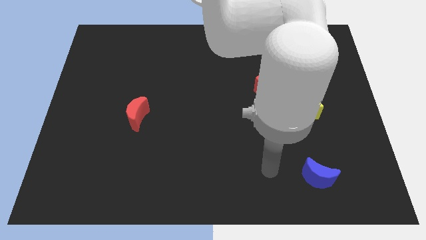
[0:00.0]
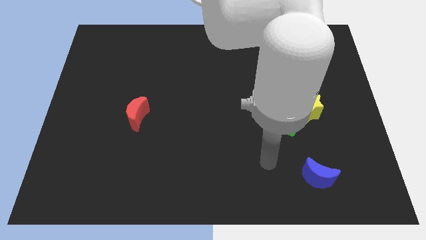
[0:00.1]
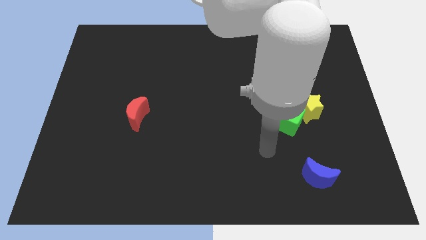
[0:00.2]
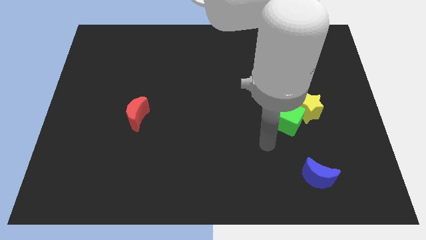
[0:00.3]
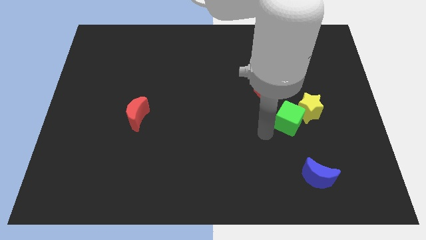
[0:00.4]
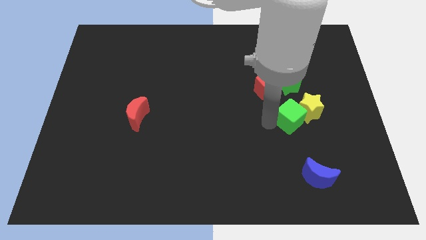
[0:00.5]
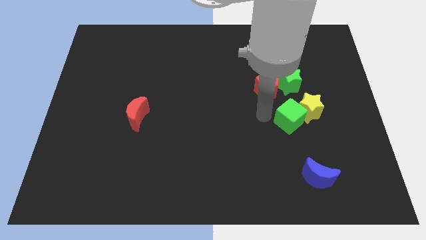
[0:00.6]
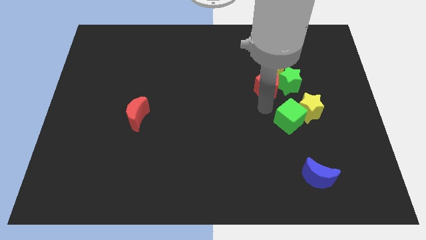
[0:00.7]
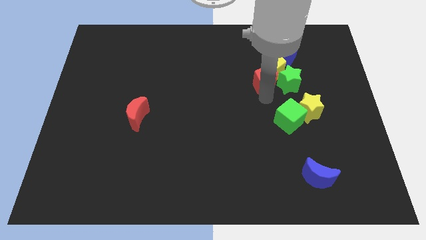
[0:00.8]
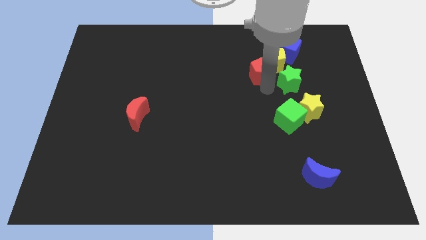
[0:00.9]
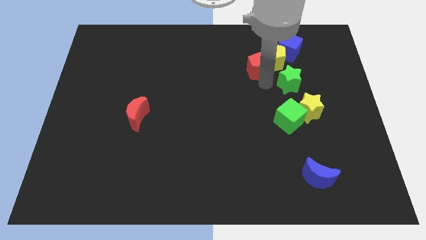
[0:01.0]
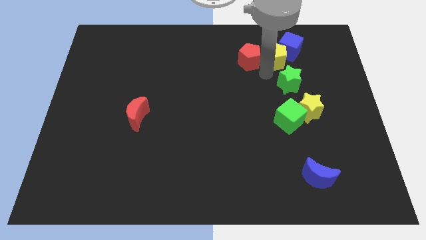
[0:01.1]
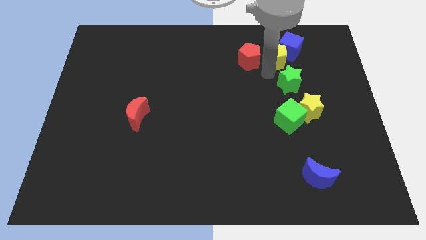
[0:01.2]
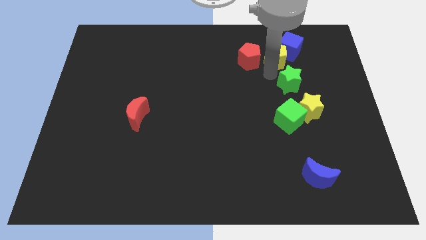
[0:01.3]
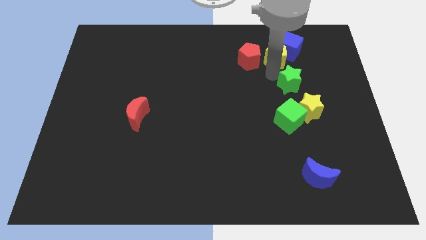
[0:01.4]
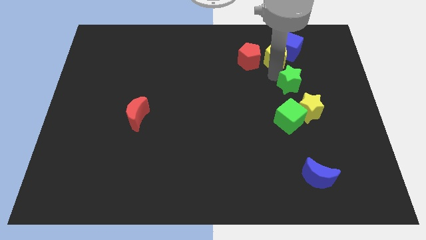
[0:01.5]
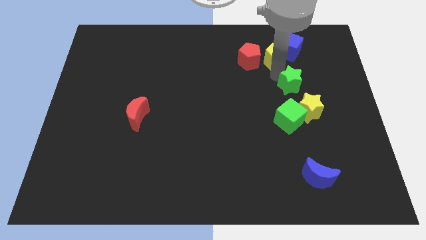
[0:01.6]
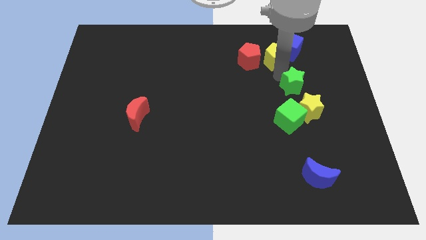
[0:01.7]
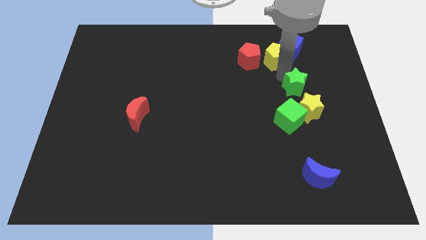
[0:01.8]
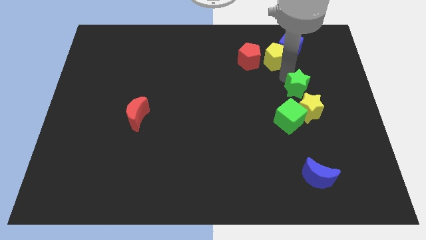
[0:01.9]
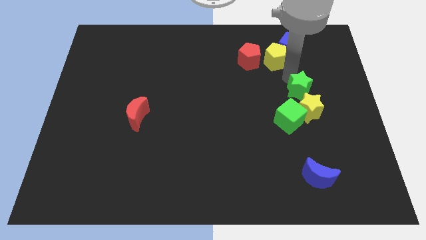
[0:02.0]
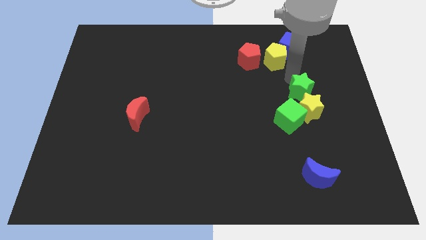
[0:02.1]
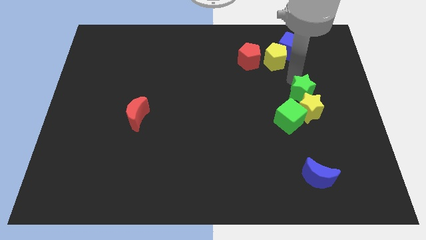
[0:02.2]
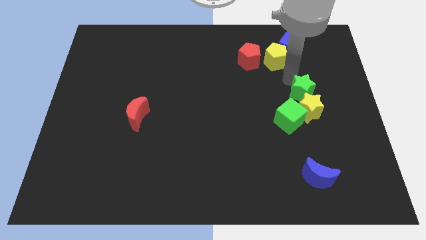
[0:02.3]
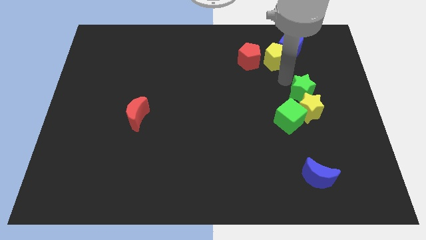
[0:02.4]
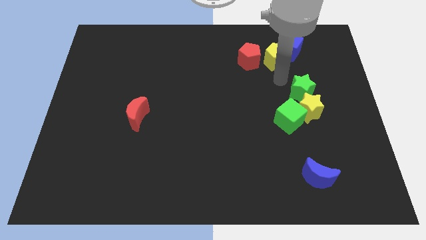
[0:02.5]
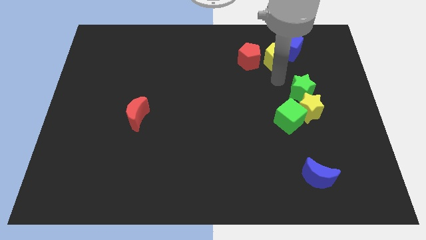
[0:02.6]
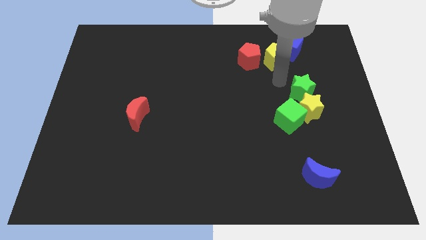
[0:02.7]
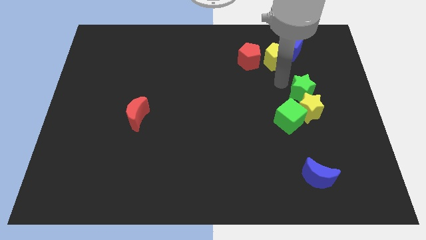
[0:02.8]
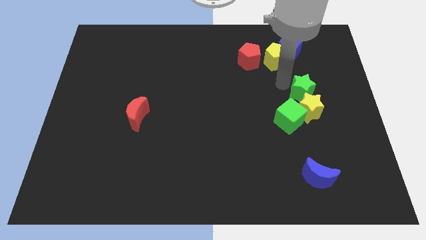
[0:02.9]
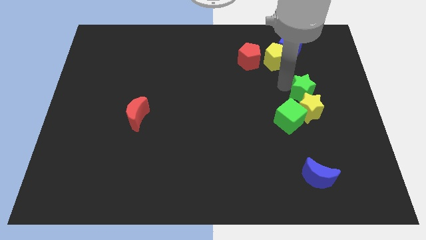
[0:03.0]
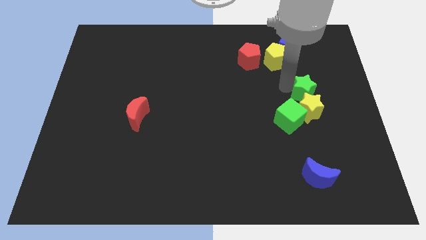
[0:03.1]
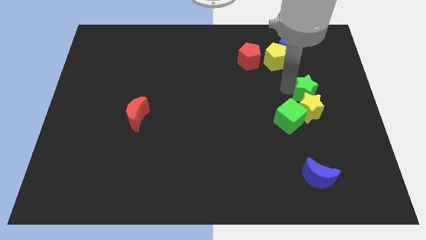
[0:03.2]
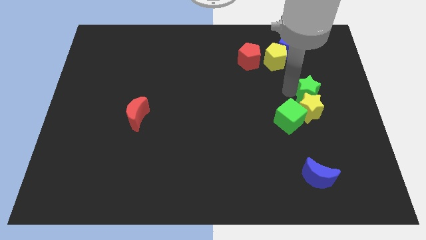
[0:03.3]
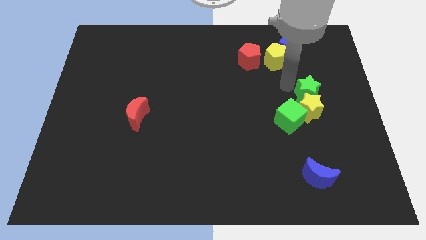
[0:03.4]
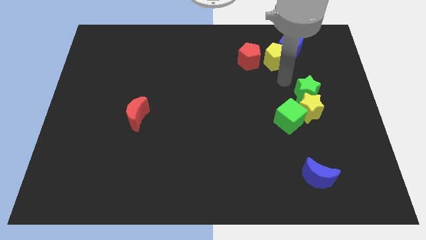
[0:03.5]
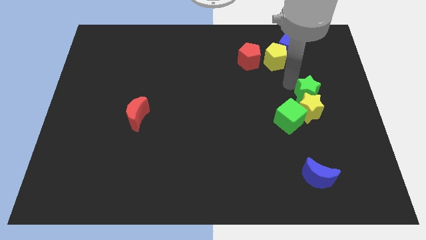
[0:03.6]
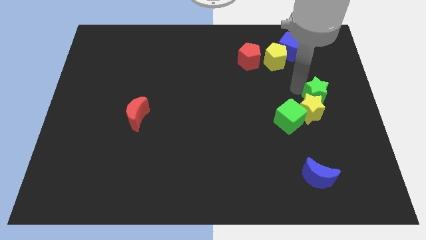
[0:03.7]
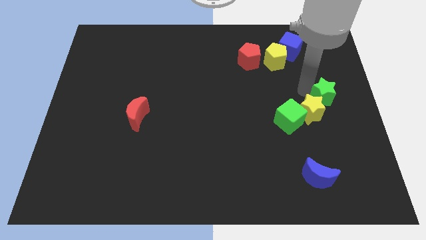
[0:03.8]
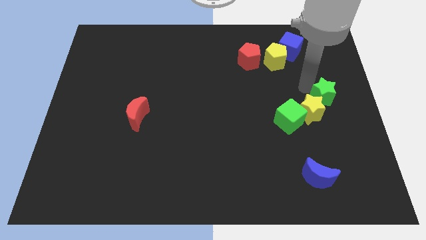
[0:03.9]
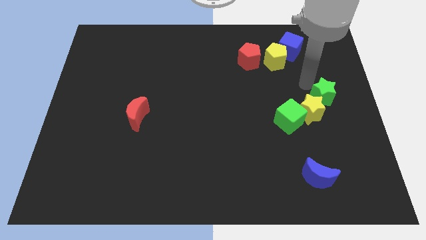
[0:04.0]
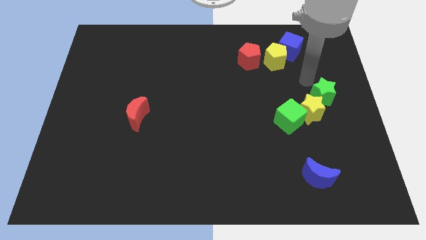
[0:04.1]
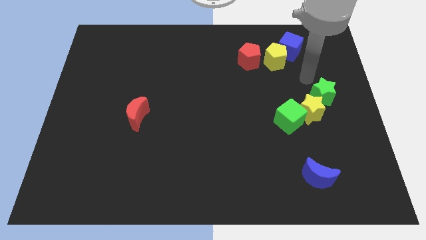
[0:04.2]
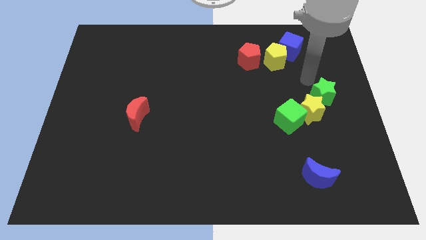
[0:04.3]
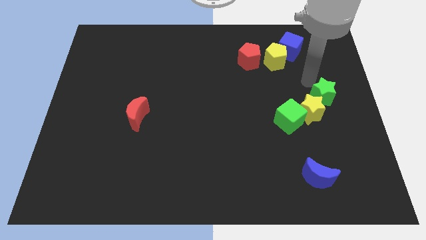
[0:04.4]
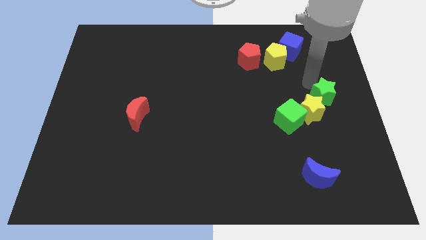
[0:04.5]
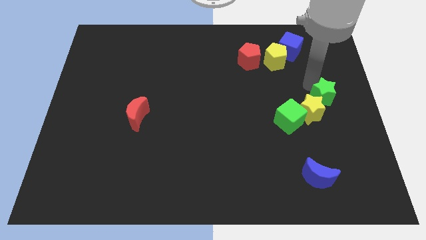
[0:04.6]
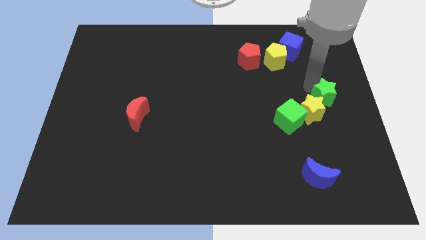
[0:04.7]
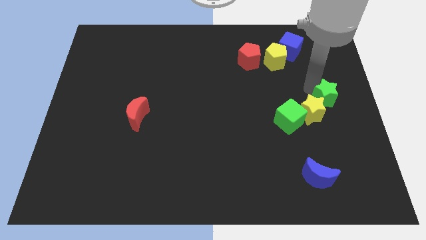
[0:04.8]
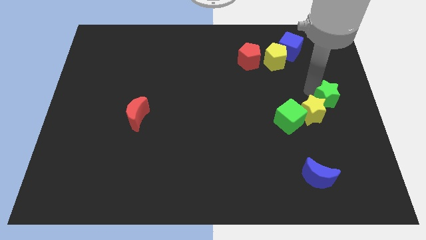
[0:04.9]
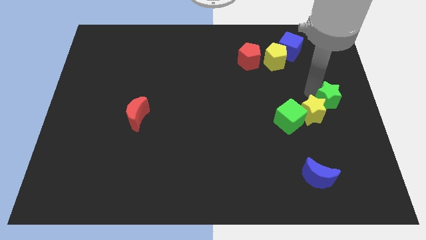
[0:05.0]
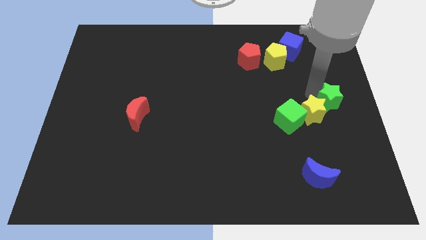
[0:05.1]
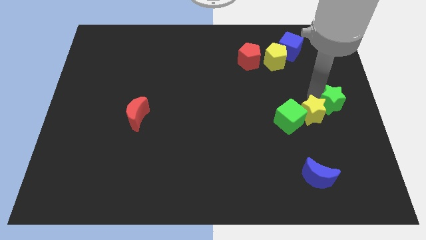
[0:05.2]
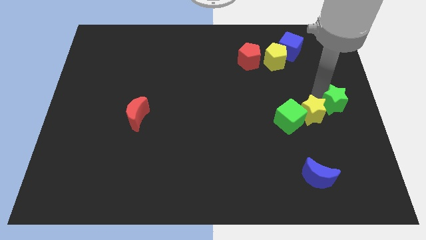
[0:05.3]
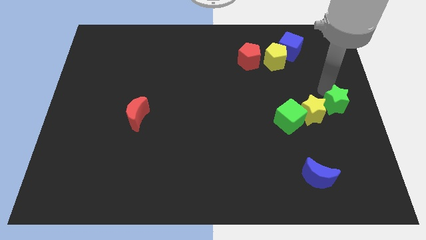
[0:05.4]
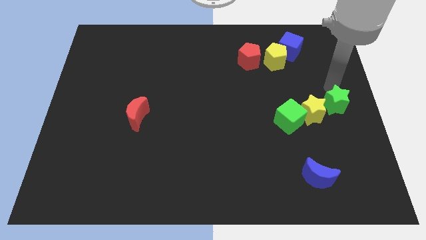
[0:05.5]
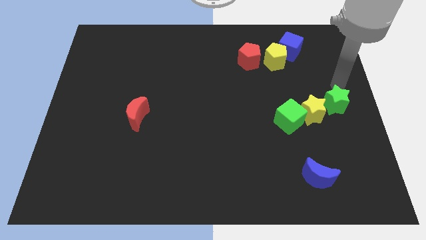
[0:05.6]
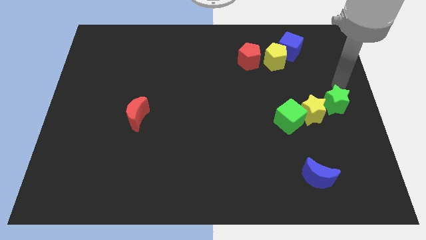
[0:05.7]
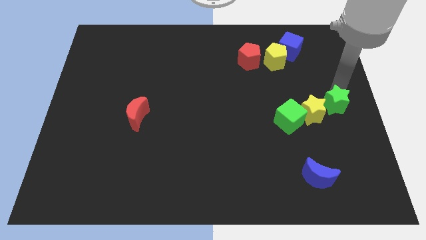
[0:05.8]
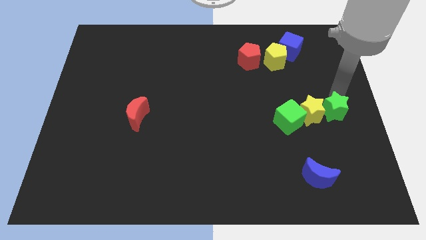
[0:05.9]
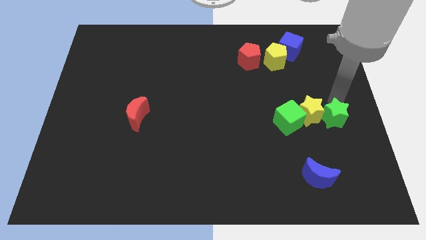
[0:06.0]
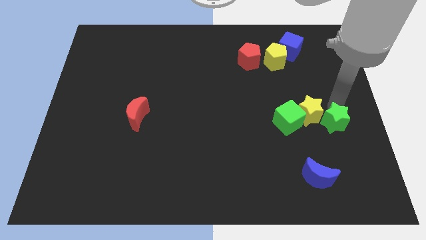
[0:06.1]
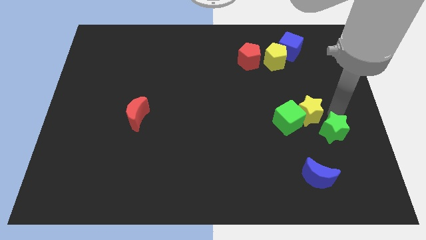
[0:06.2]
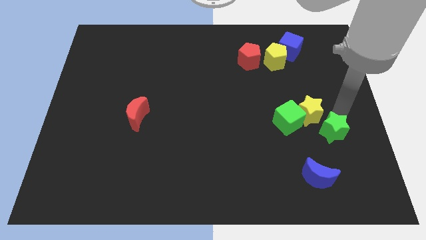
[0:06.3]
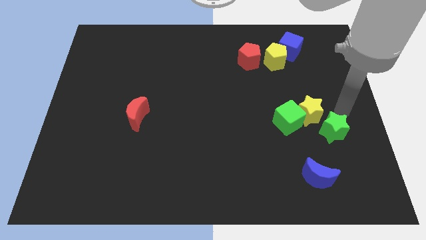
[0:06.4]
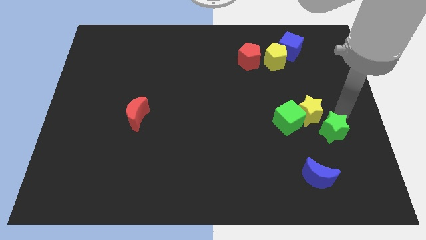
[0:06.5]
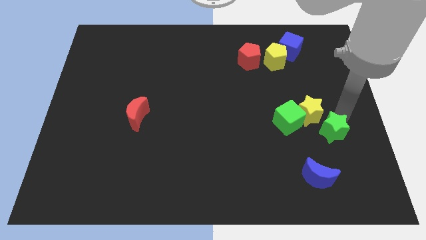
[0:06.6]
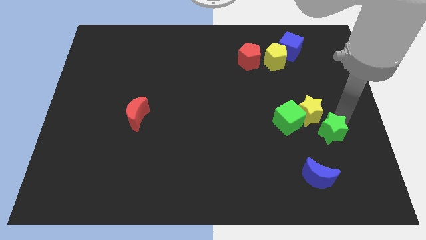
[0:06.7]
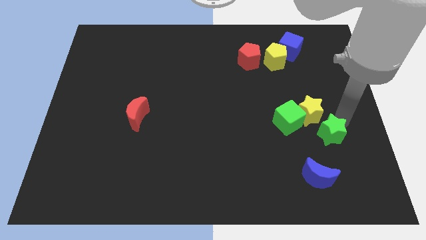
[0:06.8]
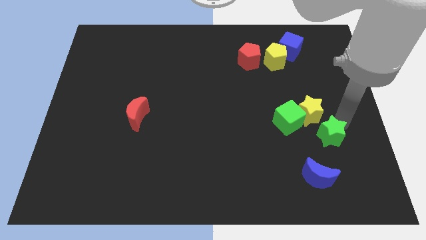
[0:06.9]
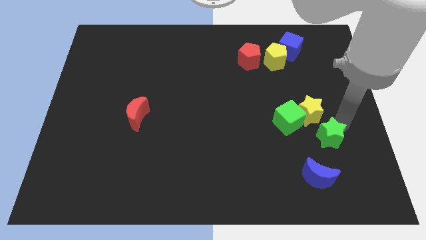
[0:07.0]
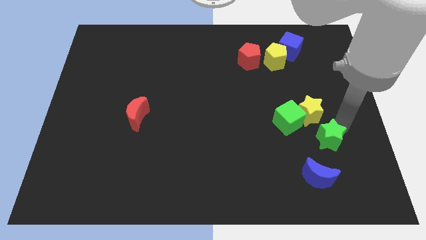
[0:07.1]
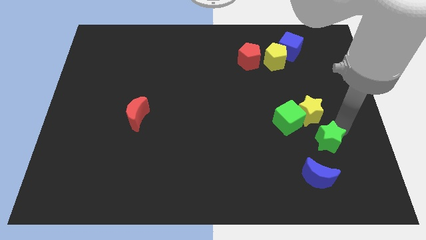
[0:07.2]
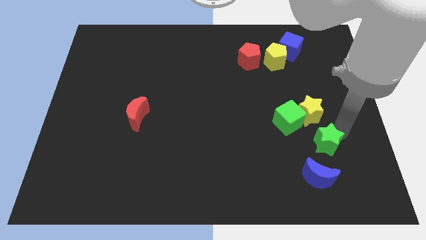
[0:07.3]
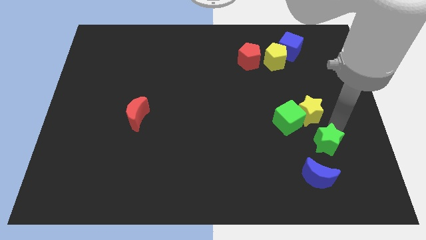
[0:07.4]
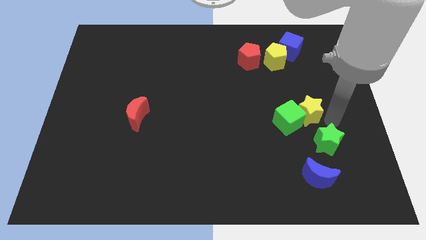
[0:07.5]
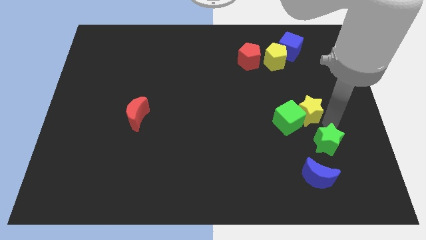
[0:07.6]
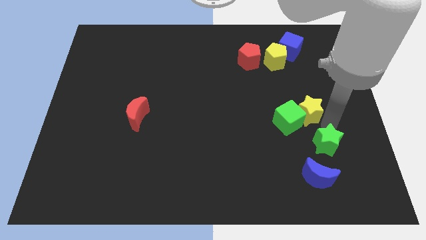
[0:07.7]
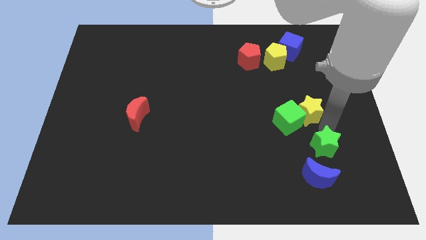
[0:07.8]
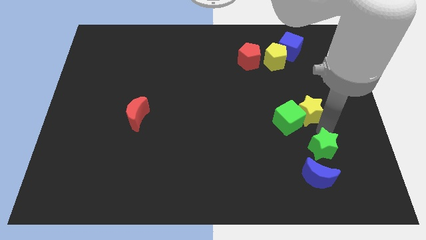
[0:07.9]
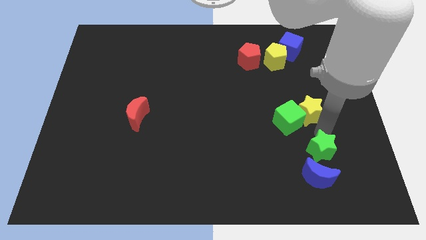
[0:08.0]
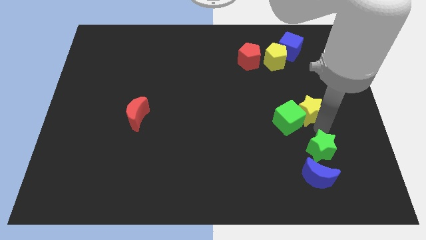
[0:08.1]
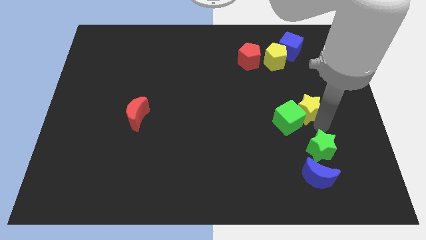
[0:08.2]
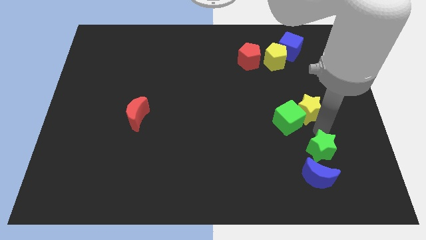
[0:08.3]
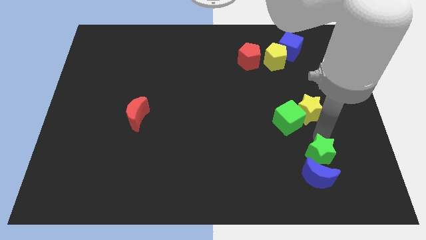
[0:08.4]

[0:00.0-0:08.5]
put the green star towards the blue moon
